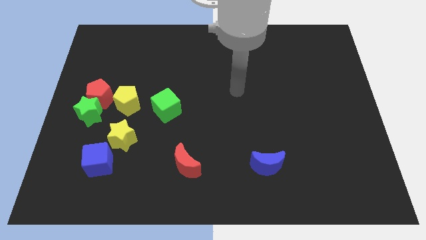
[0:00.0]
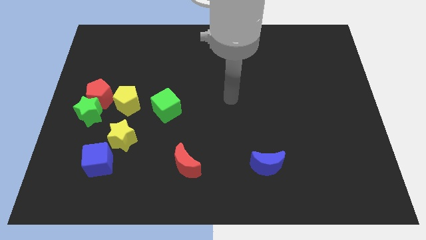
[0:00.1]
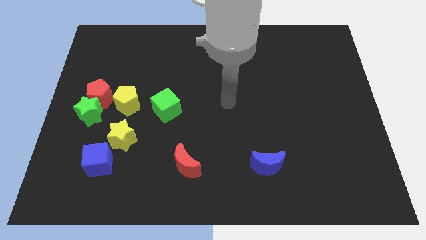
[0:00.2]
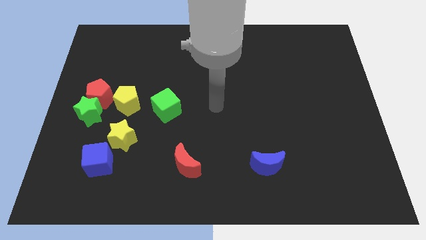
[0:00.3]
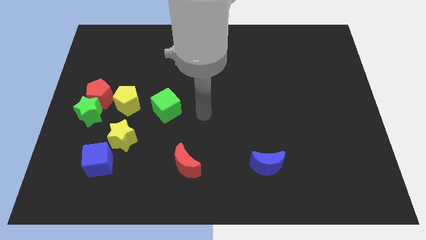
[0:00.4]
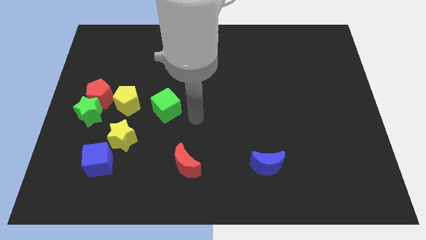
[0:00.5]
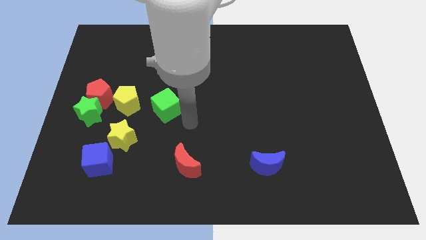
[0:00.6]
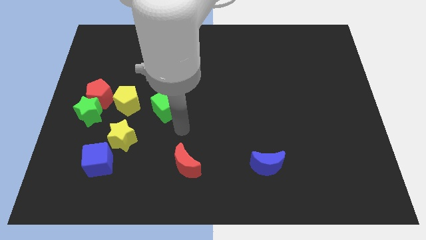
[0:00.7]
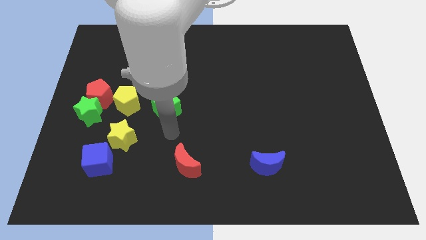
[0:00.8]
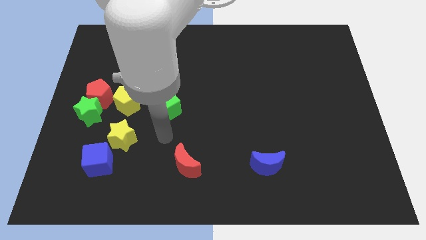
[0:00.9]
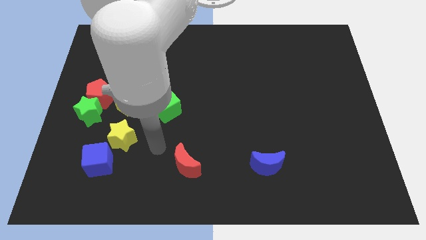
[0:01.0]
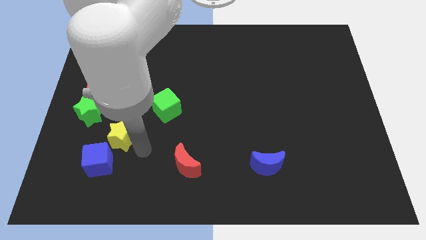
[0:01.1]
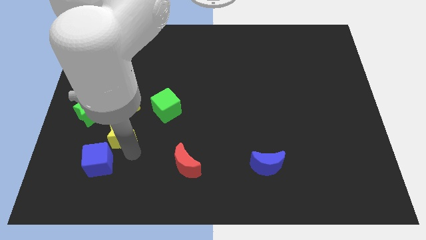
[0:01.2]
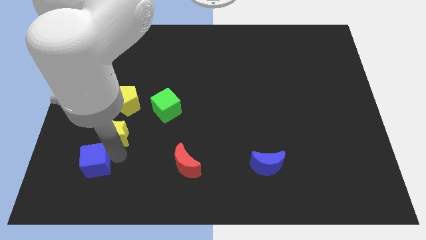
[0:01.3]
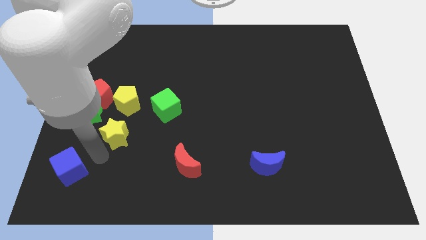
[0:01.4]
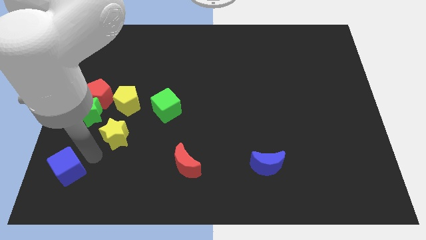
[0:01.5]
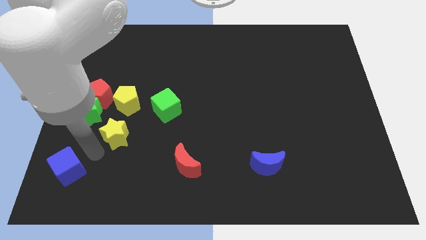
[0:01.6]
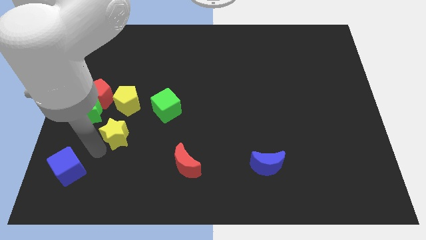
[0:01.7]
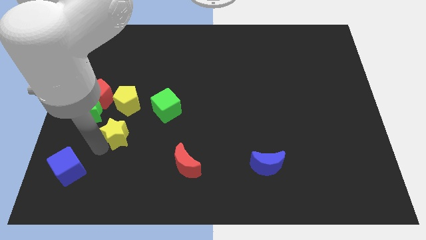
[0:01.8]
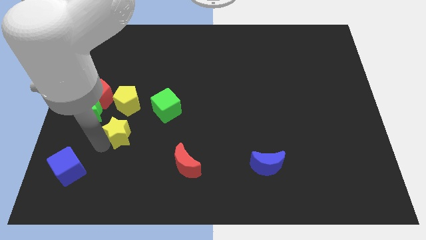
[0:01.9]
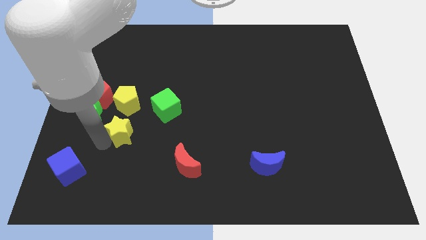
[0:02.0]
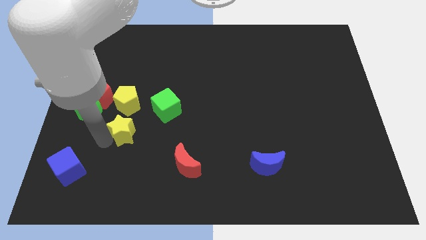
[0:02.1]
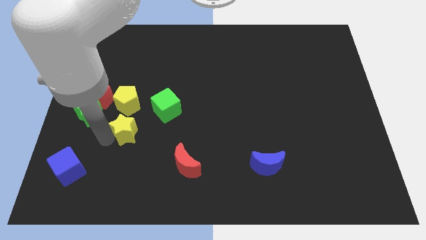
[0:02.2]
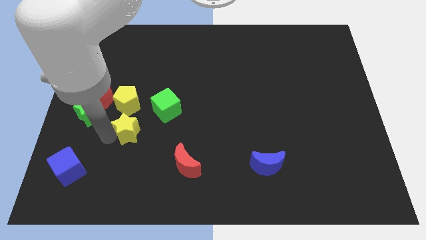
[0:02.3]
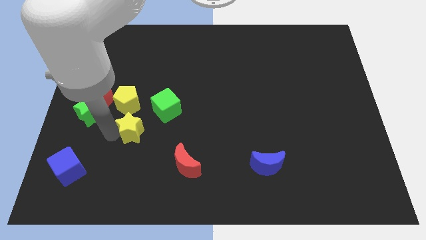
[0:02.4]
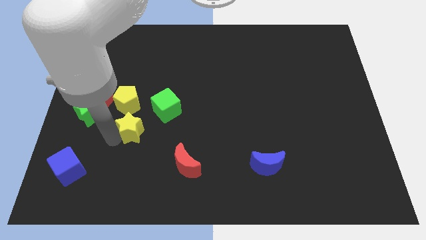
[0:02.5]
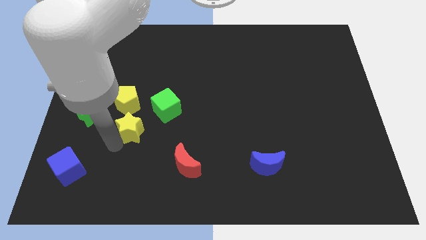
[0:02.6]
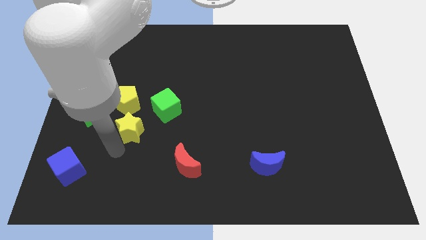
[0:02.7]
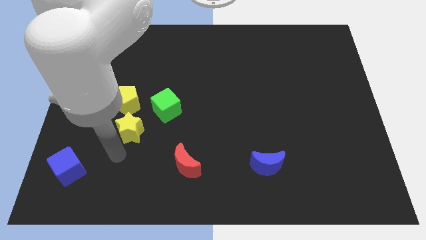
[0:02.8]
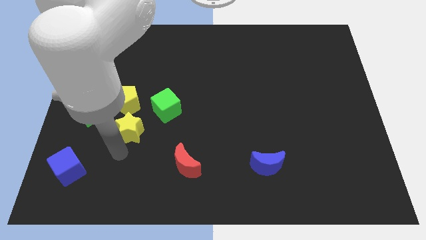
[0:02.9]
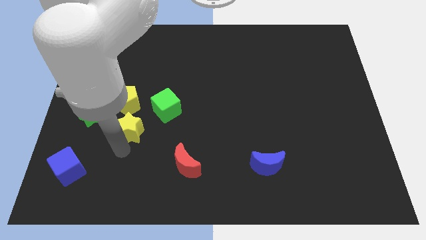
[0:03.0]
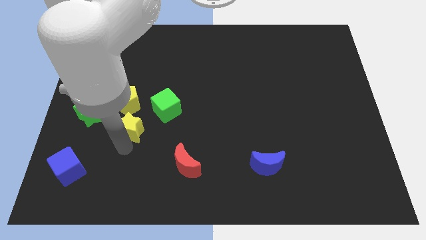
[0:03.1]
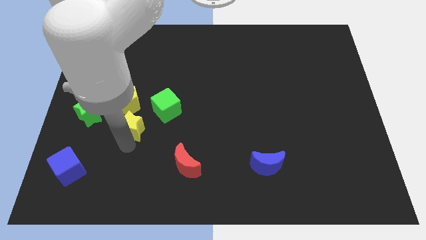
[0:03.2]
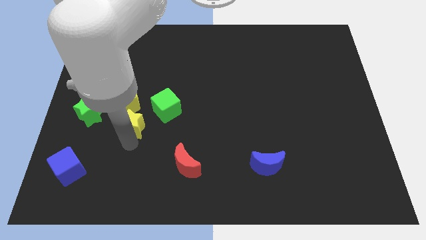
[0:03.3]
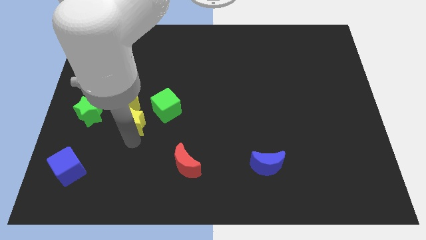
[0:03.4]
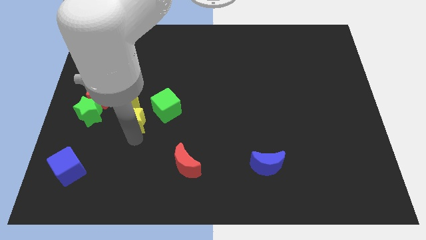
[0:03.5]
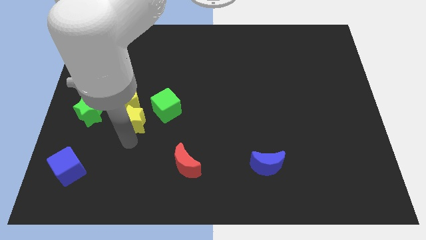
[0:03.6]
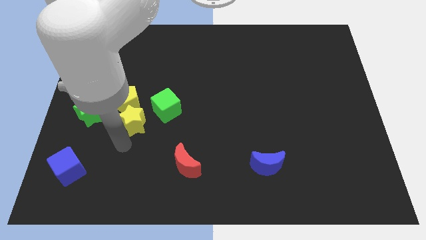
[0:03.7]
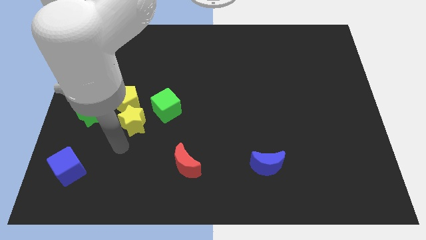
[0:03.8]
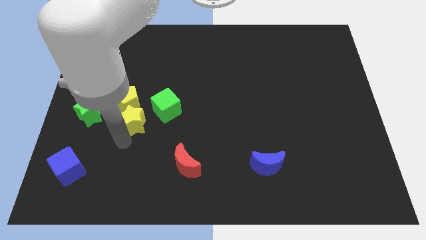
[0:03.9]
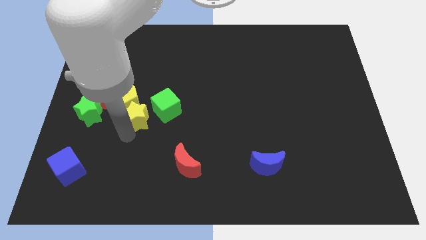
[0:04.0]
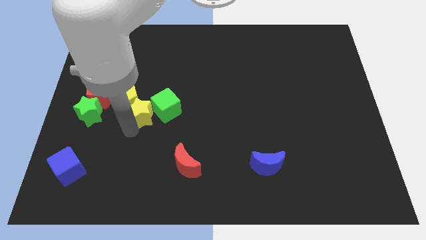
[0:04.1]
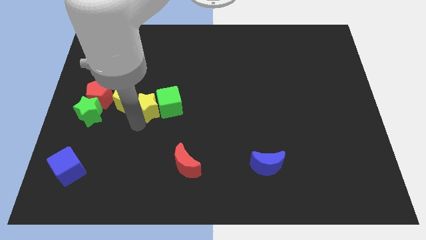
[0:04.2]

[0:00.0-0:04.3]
push the yellow star upwards a bit

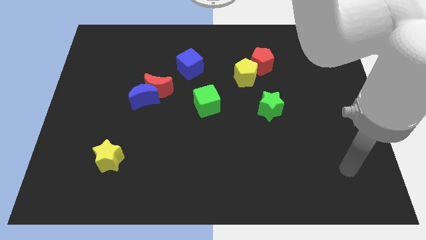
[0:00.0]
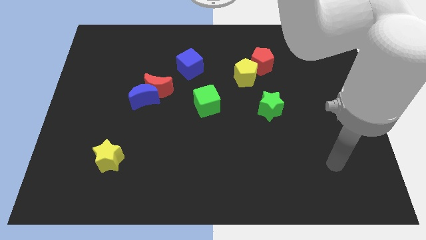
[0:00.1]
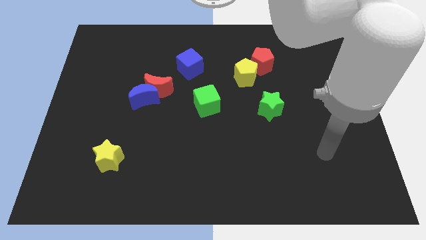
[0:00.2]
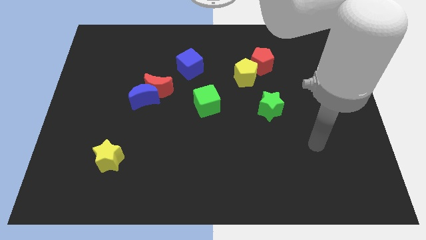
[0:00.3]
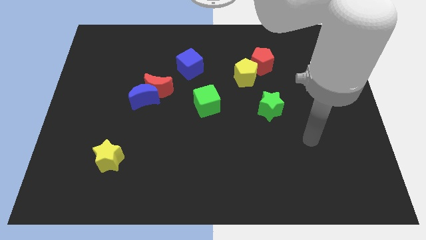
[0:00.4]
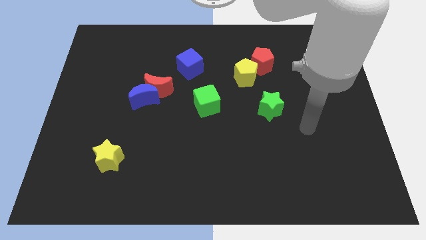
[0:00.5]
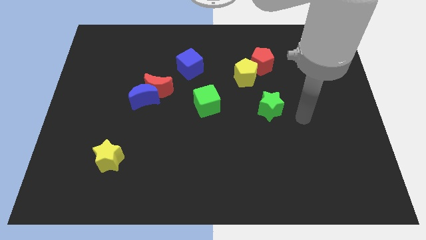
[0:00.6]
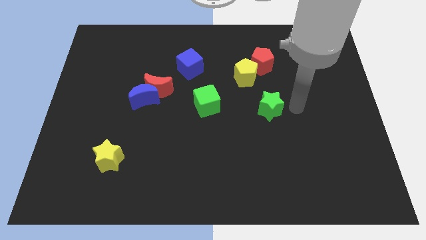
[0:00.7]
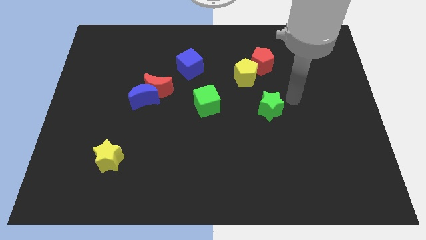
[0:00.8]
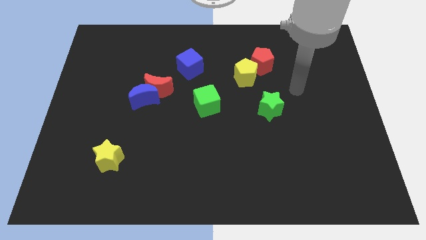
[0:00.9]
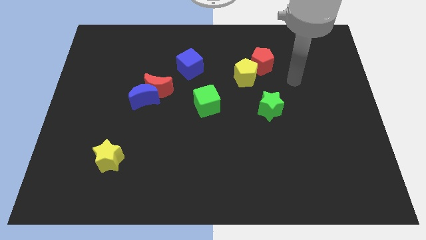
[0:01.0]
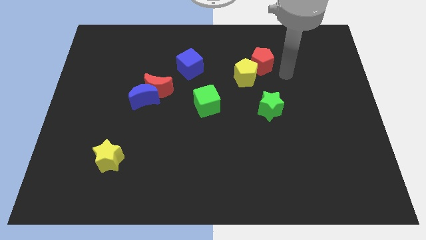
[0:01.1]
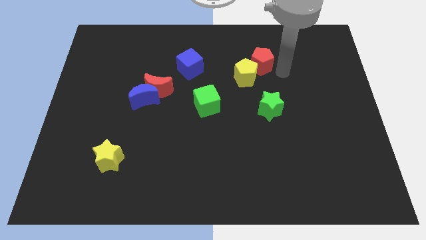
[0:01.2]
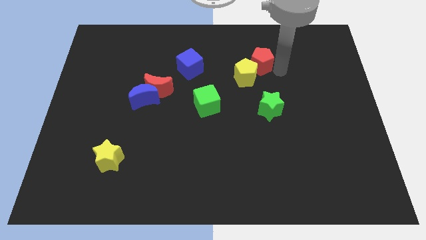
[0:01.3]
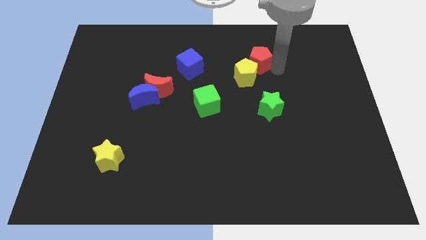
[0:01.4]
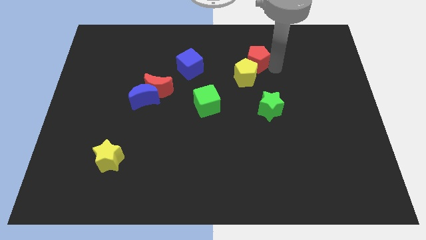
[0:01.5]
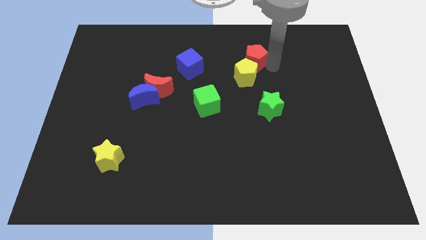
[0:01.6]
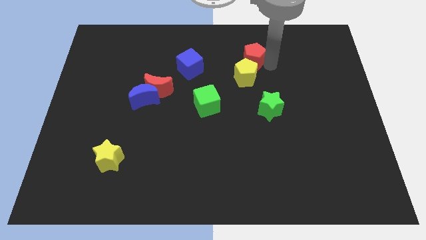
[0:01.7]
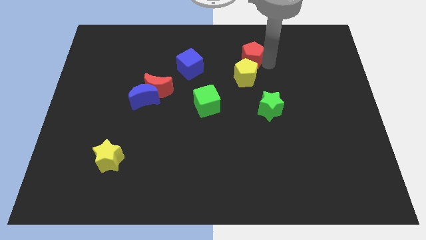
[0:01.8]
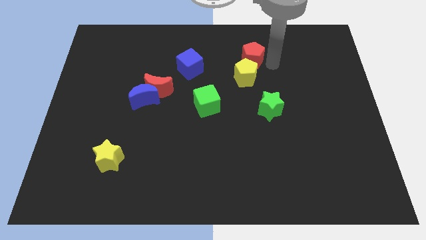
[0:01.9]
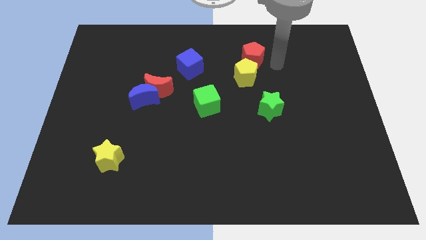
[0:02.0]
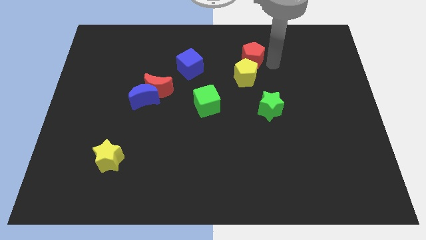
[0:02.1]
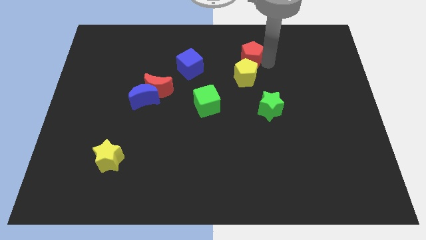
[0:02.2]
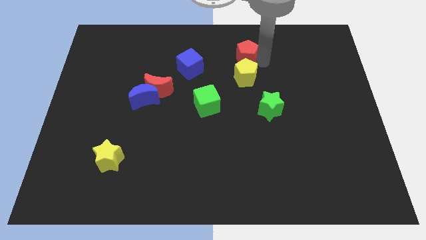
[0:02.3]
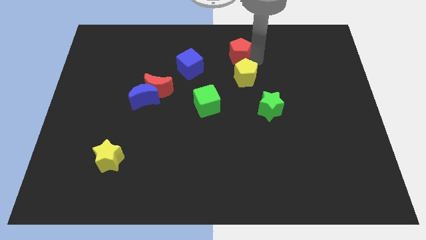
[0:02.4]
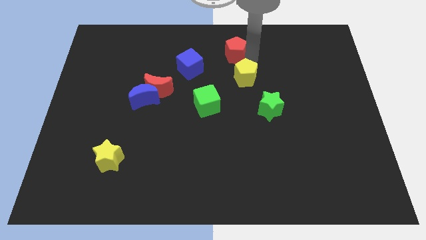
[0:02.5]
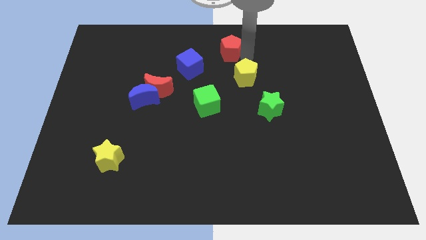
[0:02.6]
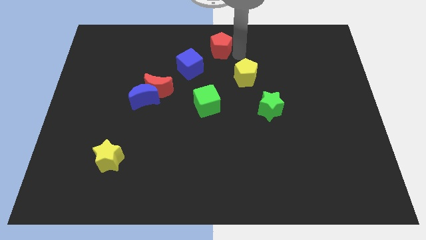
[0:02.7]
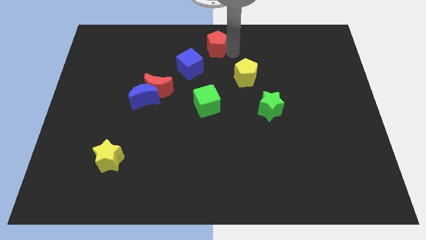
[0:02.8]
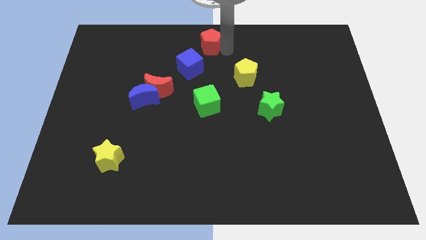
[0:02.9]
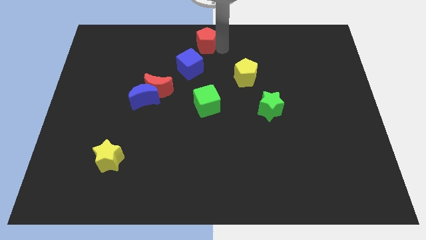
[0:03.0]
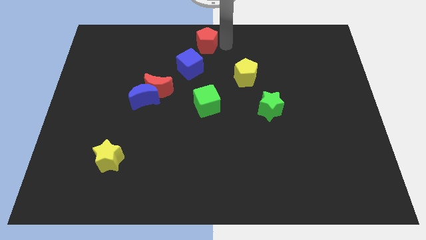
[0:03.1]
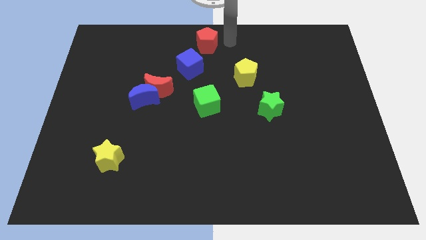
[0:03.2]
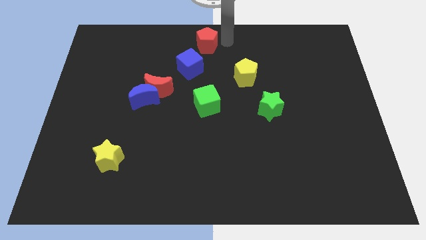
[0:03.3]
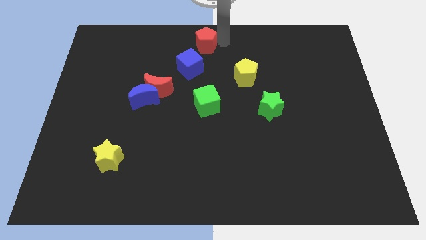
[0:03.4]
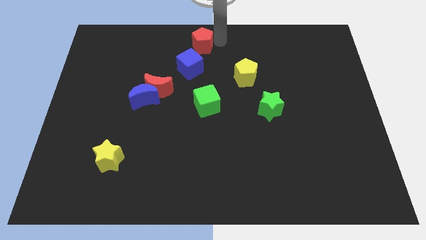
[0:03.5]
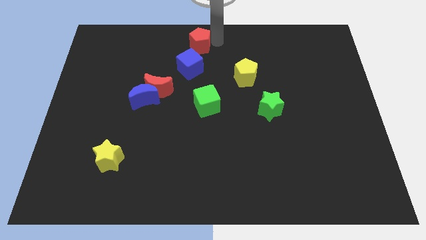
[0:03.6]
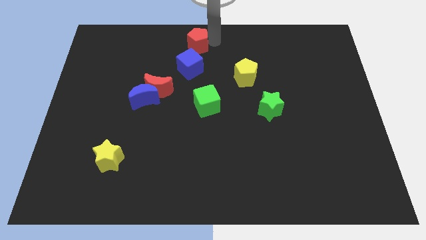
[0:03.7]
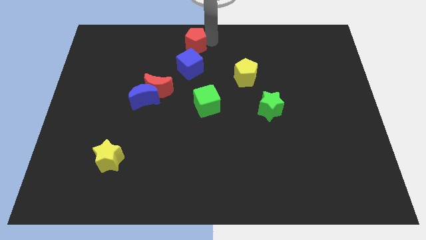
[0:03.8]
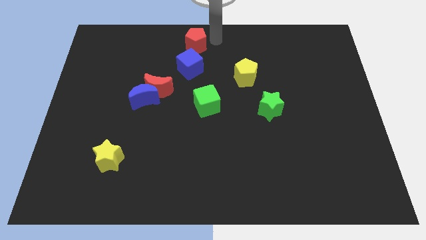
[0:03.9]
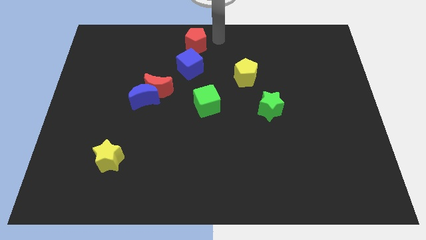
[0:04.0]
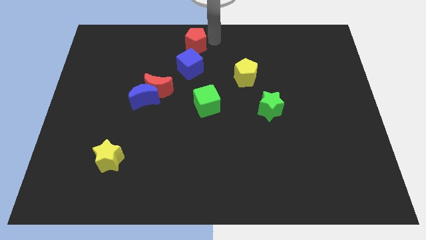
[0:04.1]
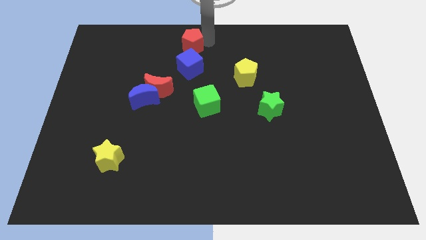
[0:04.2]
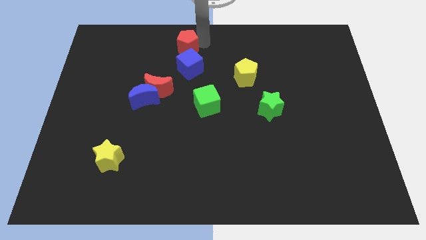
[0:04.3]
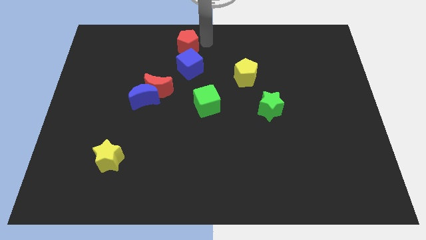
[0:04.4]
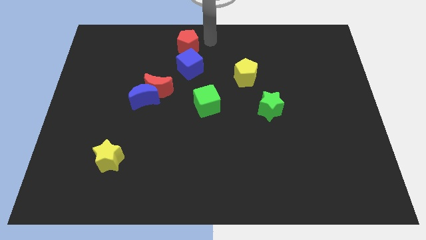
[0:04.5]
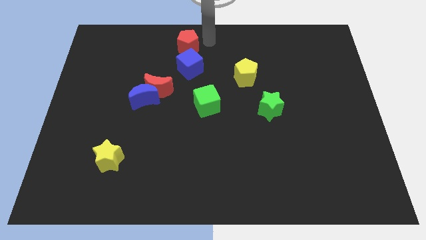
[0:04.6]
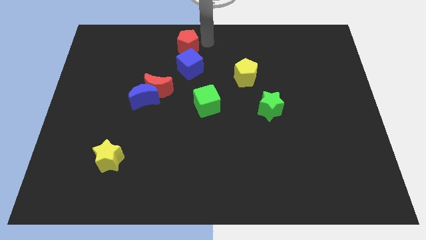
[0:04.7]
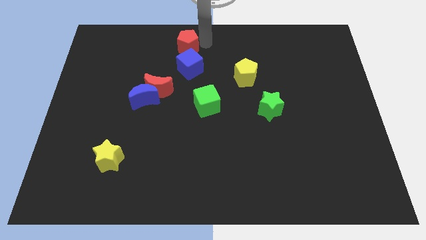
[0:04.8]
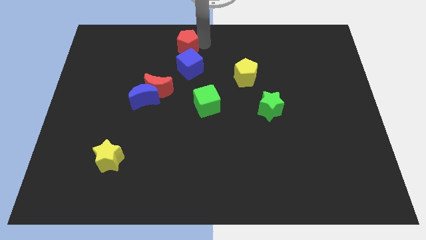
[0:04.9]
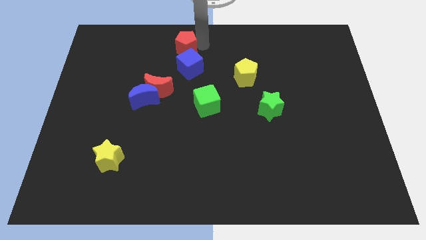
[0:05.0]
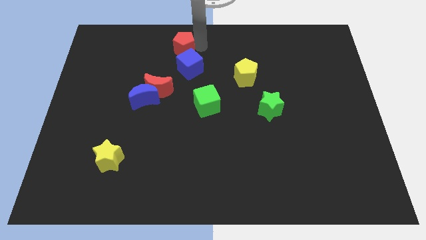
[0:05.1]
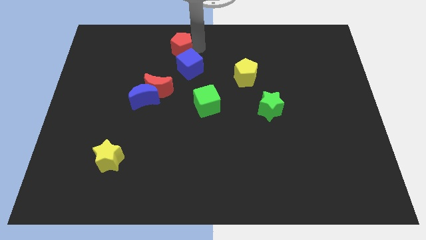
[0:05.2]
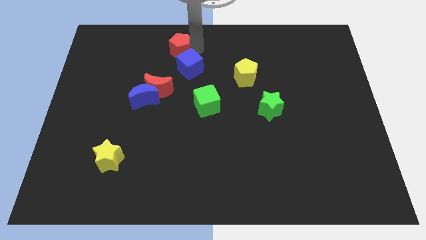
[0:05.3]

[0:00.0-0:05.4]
slide the red pentagon left
